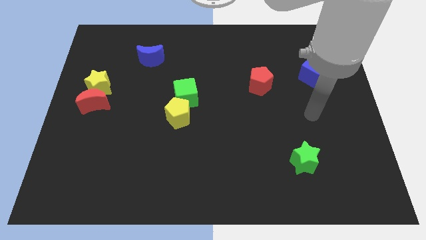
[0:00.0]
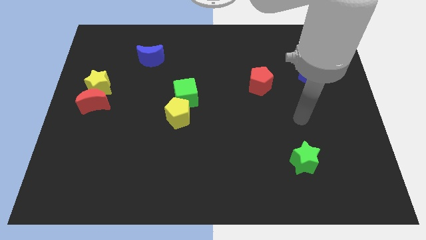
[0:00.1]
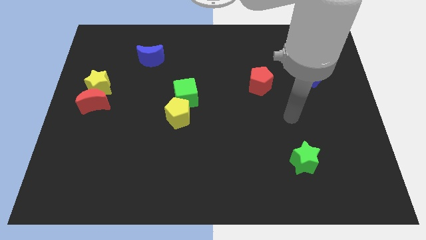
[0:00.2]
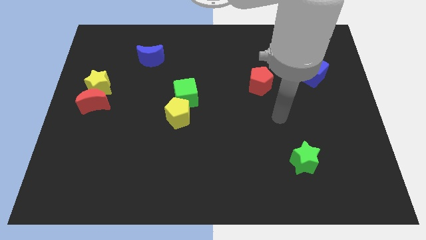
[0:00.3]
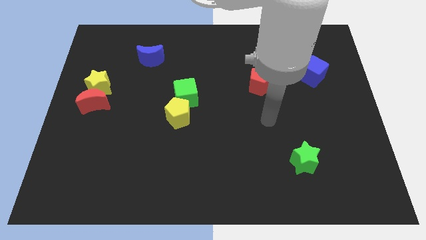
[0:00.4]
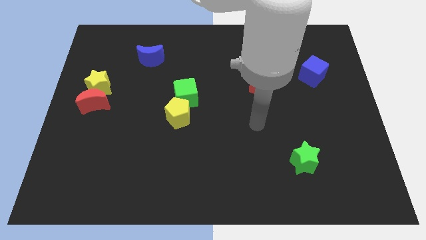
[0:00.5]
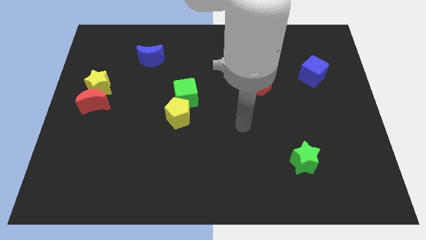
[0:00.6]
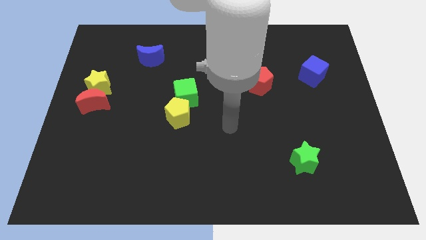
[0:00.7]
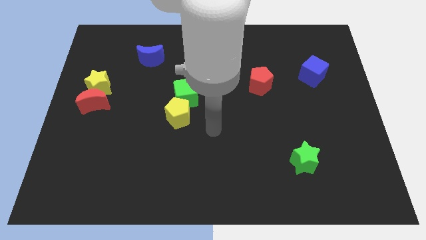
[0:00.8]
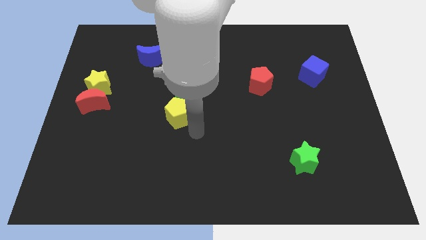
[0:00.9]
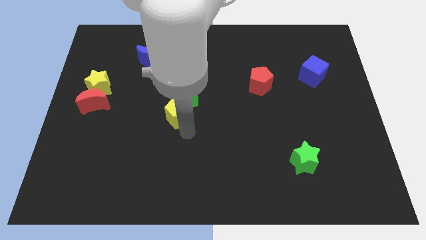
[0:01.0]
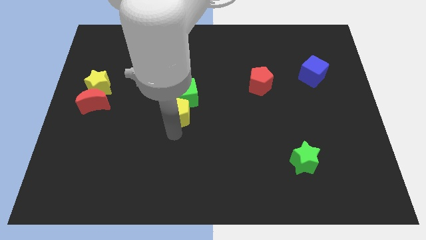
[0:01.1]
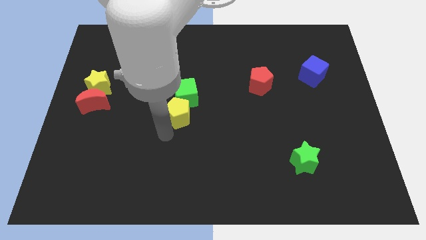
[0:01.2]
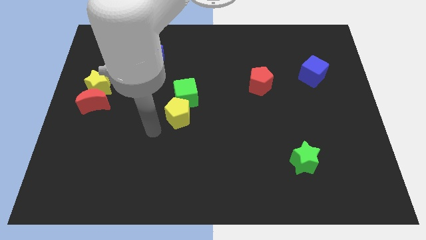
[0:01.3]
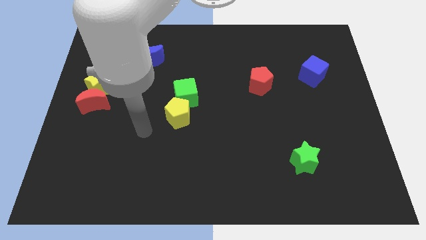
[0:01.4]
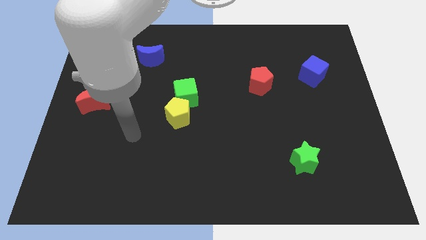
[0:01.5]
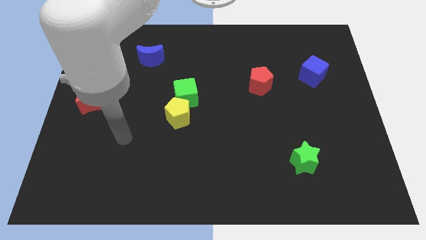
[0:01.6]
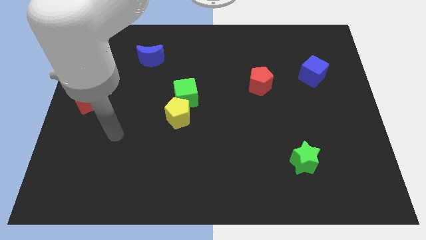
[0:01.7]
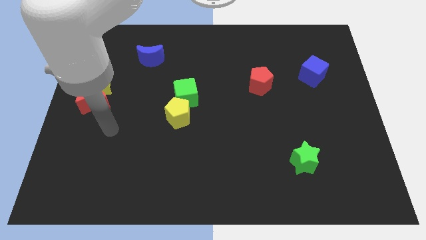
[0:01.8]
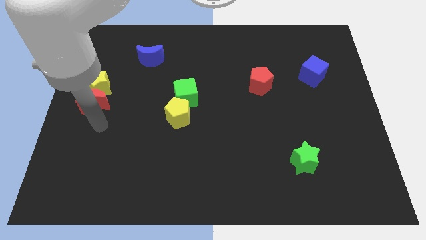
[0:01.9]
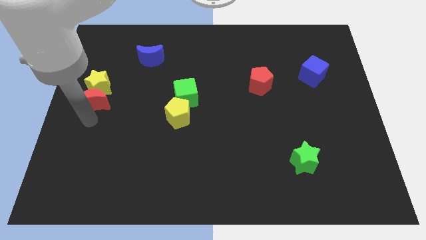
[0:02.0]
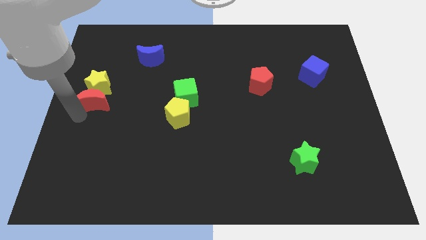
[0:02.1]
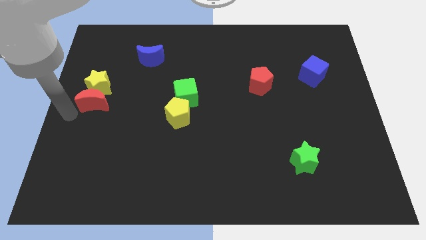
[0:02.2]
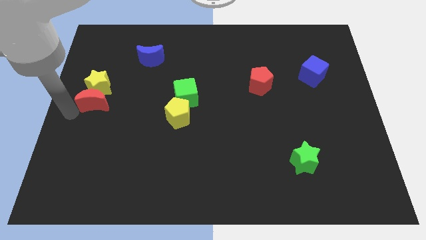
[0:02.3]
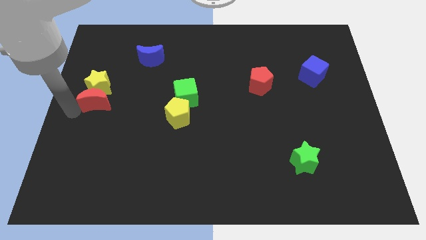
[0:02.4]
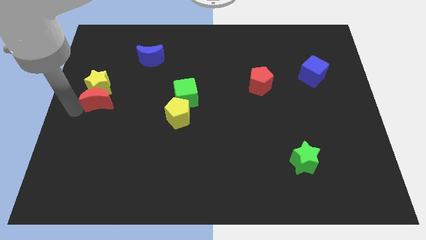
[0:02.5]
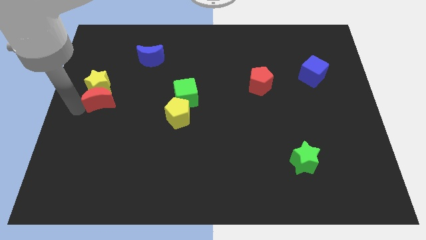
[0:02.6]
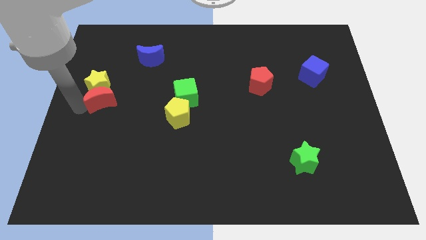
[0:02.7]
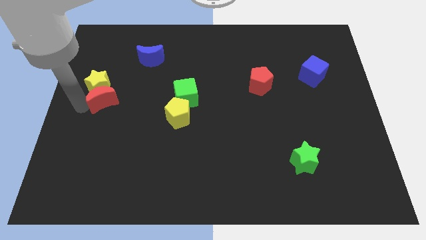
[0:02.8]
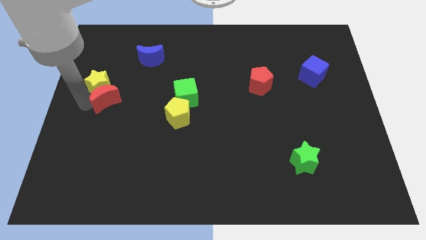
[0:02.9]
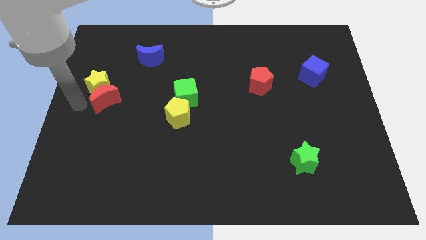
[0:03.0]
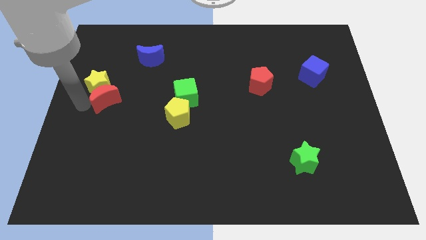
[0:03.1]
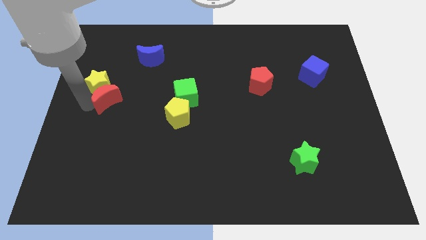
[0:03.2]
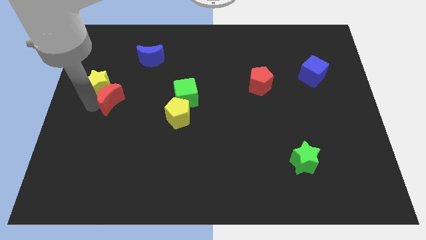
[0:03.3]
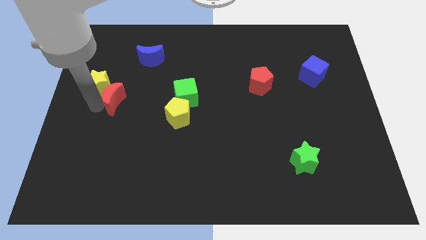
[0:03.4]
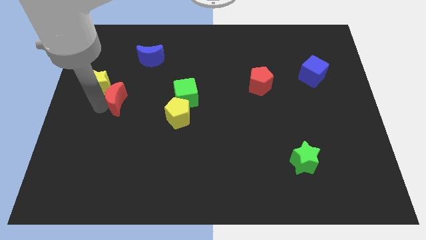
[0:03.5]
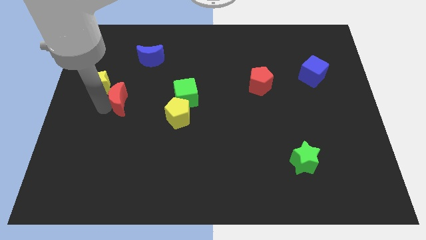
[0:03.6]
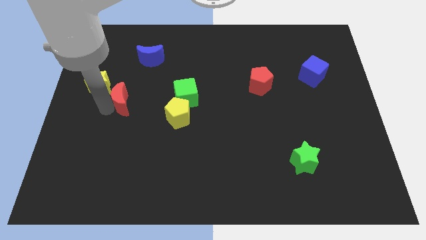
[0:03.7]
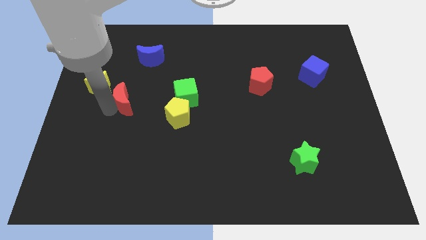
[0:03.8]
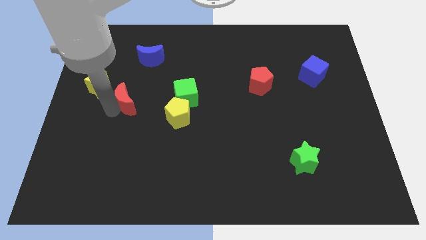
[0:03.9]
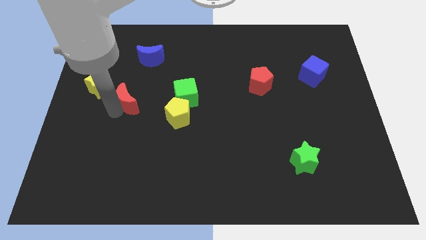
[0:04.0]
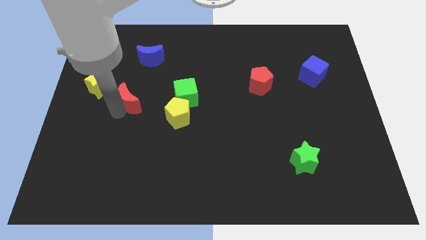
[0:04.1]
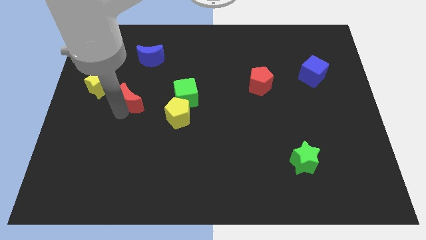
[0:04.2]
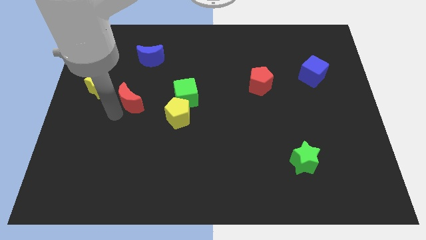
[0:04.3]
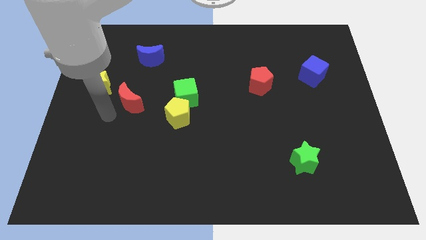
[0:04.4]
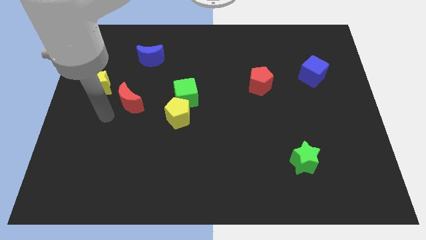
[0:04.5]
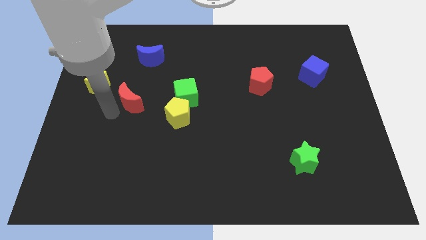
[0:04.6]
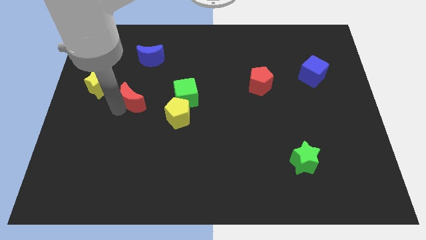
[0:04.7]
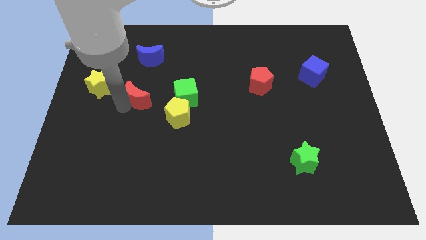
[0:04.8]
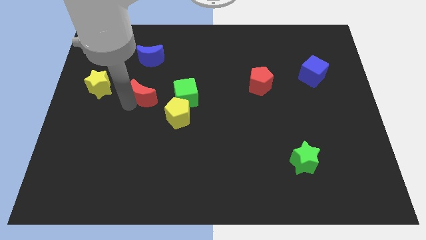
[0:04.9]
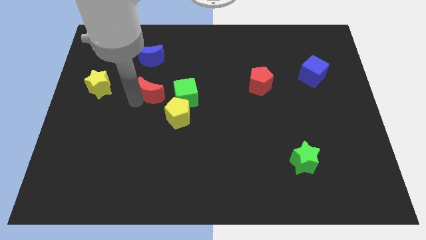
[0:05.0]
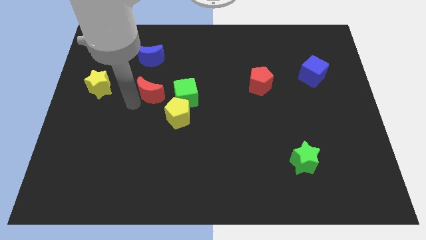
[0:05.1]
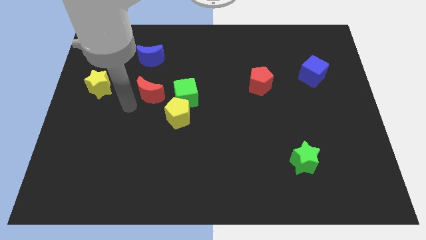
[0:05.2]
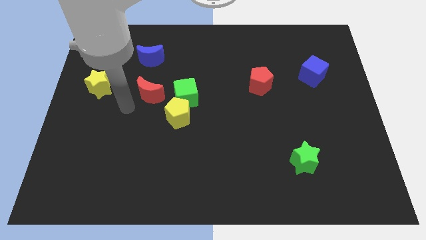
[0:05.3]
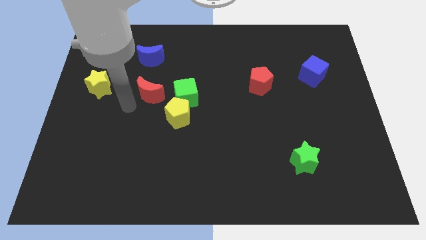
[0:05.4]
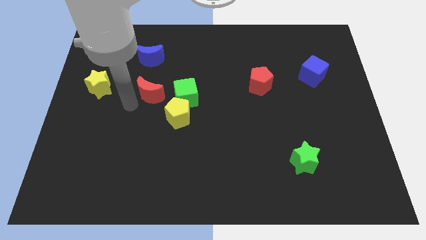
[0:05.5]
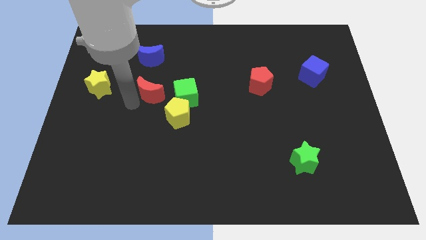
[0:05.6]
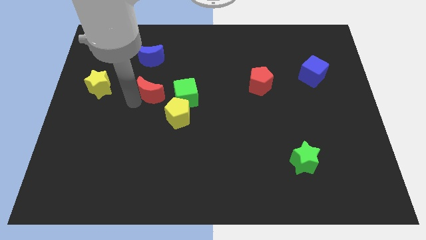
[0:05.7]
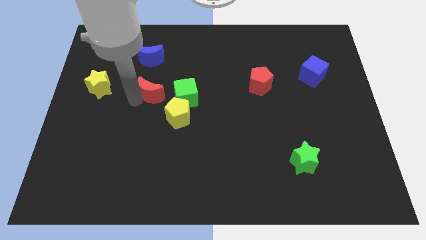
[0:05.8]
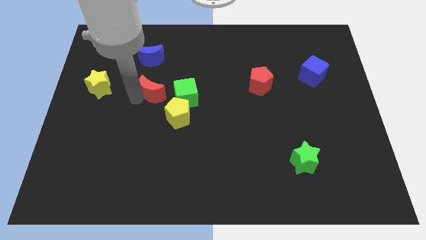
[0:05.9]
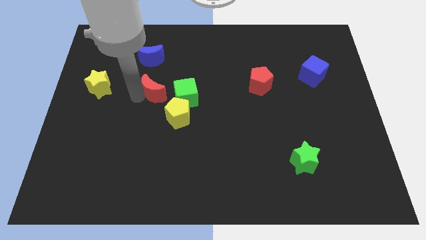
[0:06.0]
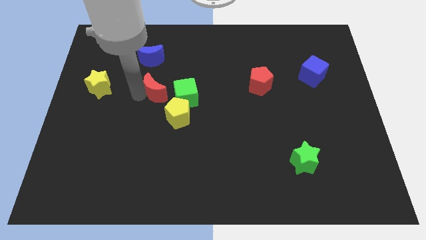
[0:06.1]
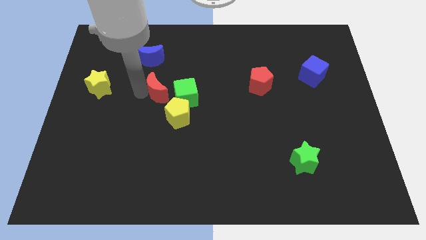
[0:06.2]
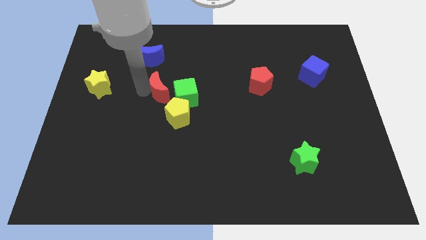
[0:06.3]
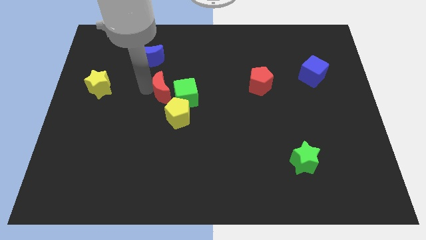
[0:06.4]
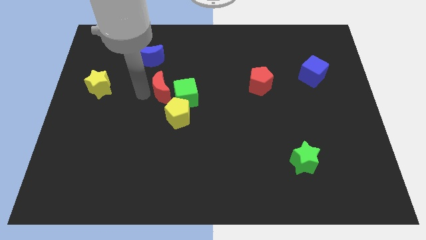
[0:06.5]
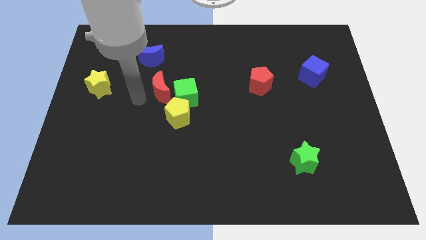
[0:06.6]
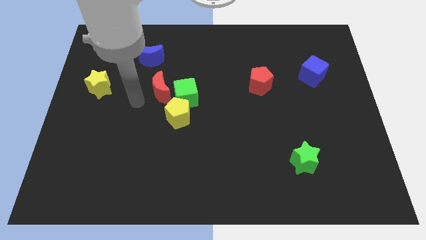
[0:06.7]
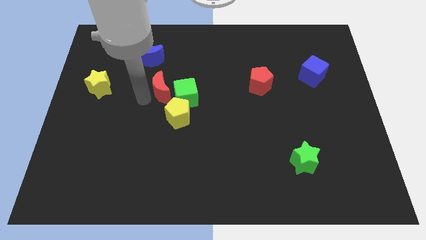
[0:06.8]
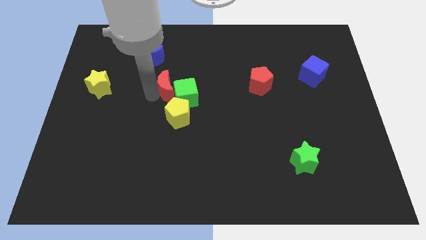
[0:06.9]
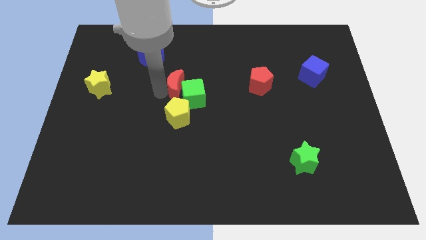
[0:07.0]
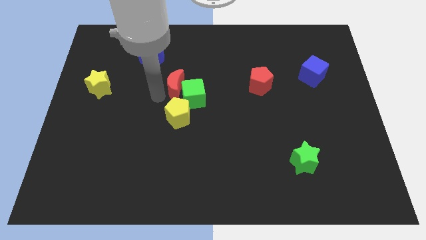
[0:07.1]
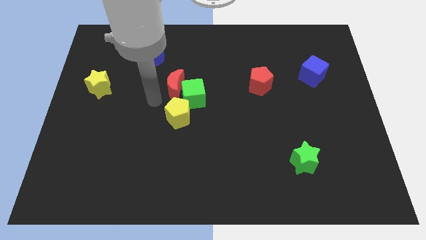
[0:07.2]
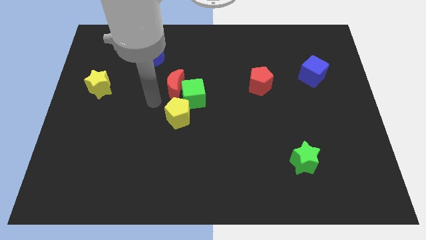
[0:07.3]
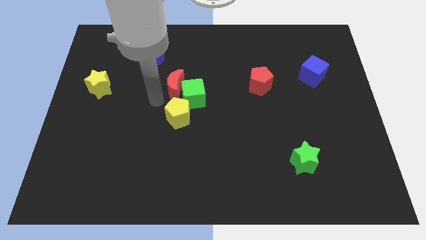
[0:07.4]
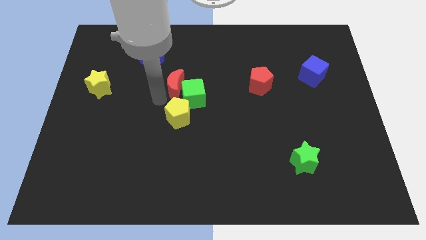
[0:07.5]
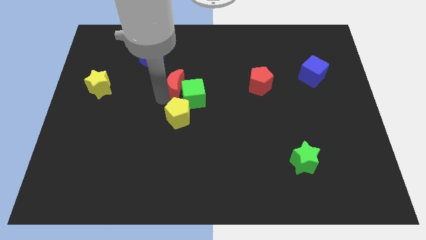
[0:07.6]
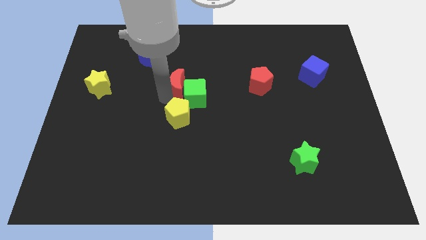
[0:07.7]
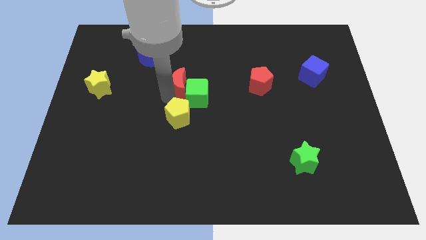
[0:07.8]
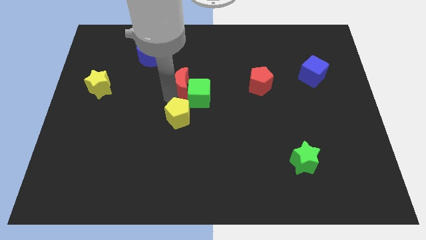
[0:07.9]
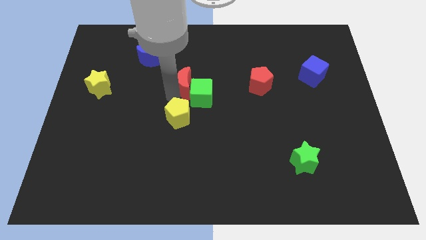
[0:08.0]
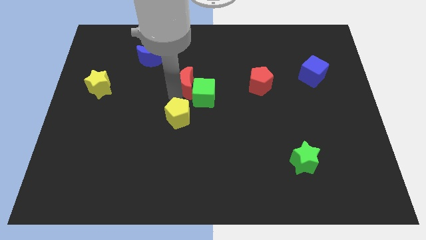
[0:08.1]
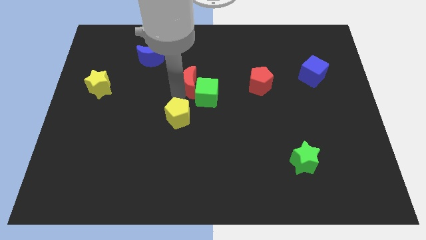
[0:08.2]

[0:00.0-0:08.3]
move the red moon to the top right of the yellow pentagon
